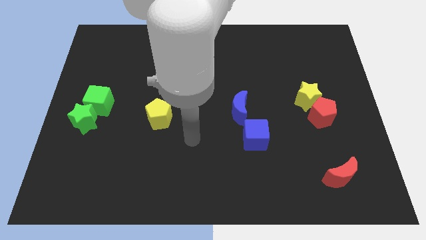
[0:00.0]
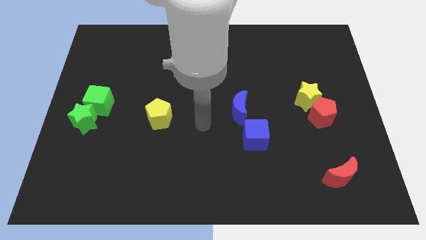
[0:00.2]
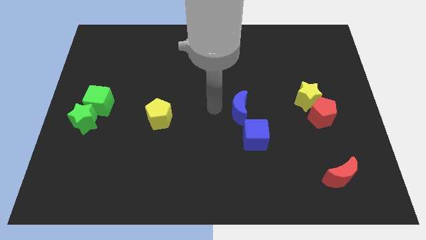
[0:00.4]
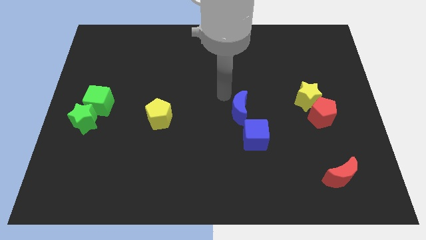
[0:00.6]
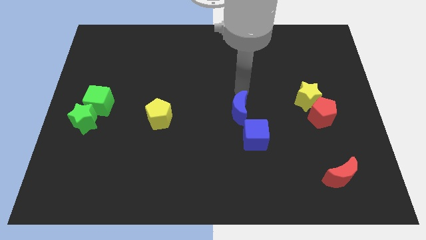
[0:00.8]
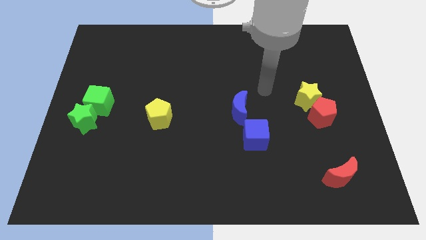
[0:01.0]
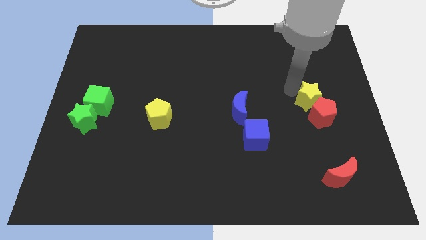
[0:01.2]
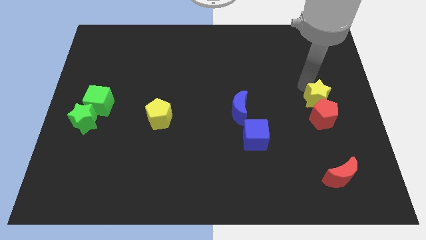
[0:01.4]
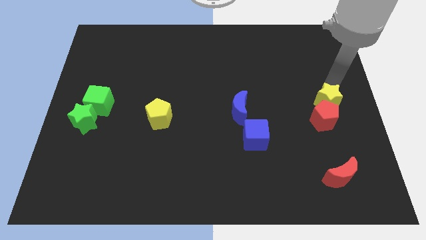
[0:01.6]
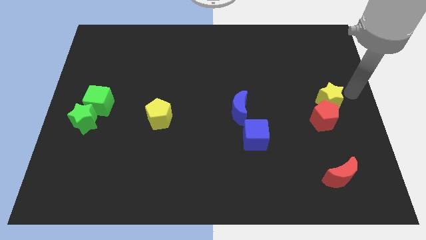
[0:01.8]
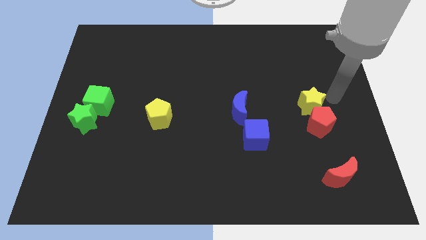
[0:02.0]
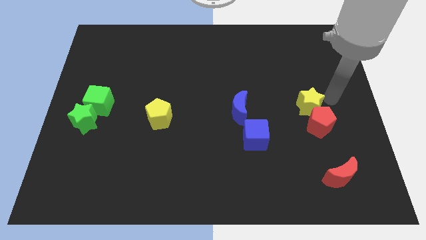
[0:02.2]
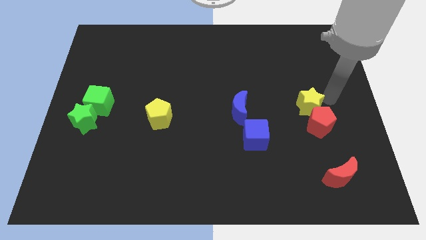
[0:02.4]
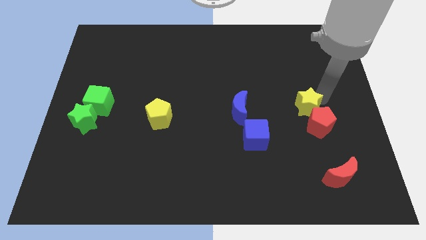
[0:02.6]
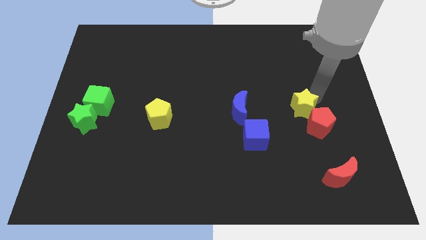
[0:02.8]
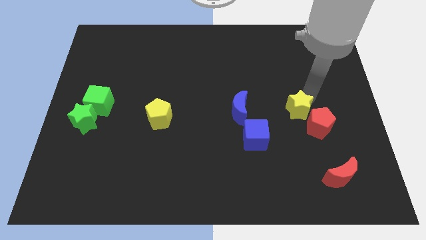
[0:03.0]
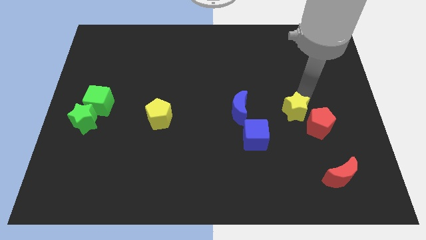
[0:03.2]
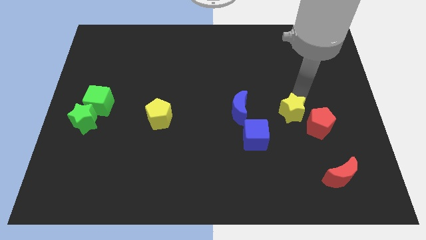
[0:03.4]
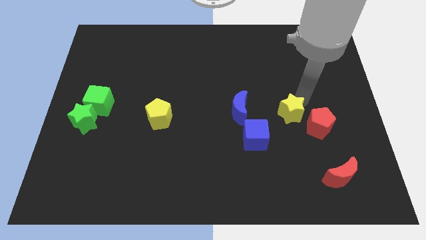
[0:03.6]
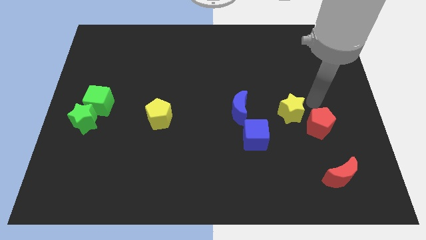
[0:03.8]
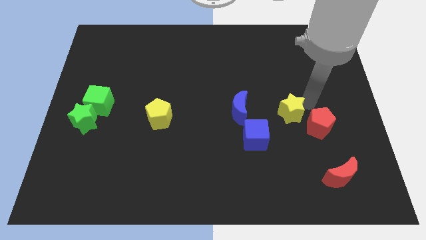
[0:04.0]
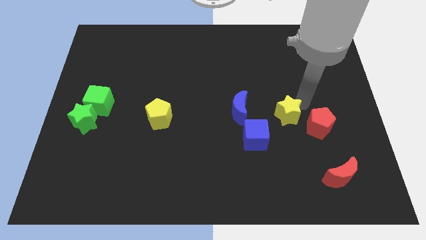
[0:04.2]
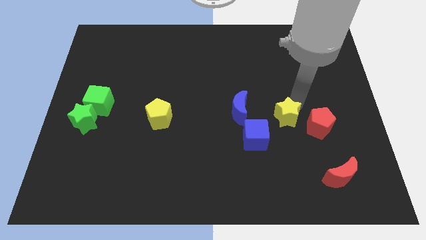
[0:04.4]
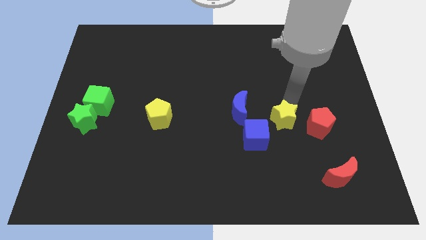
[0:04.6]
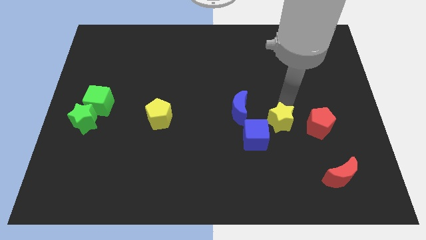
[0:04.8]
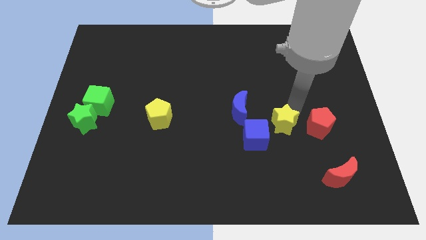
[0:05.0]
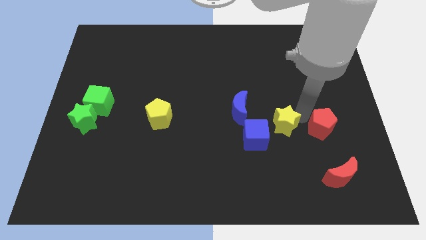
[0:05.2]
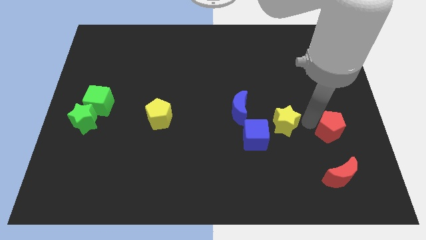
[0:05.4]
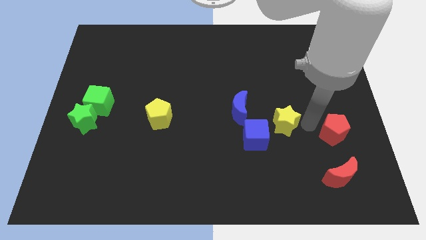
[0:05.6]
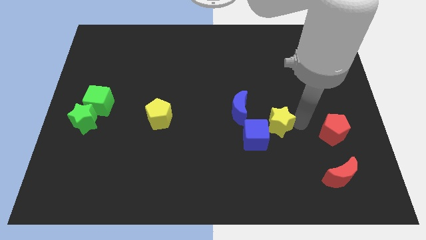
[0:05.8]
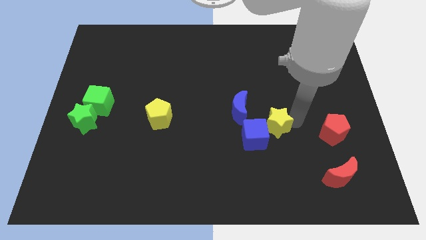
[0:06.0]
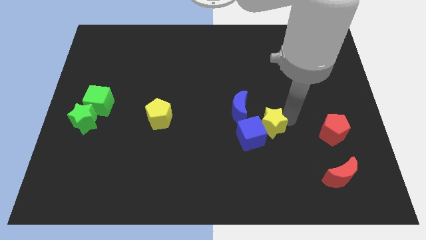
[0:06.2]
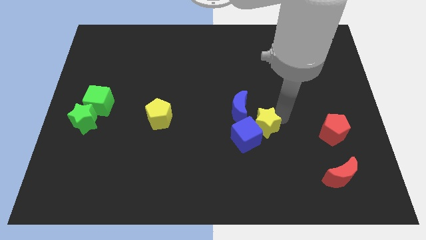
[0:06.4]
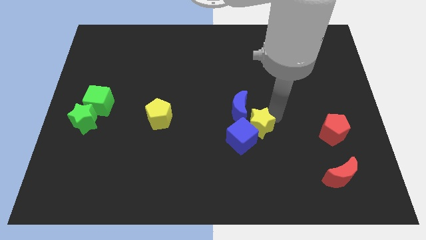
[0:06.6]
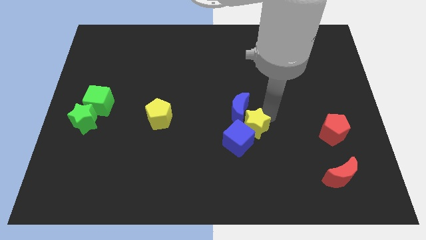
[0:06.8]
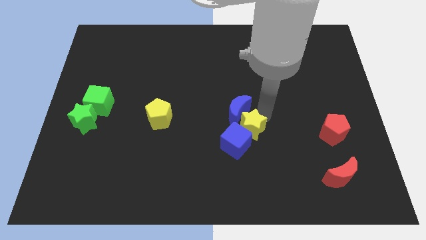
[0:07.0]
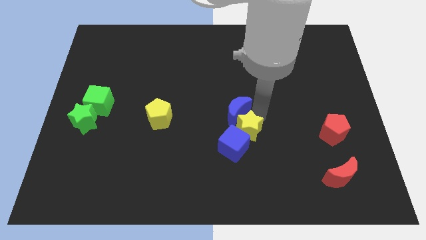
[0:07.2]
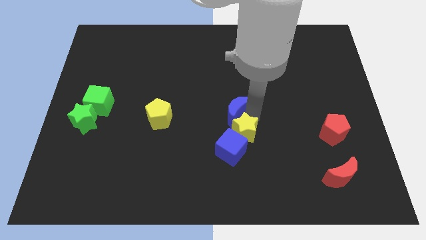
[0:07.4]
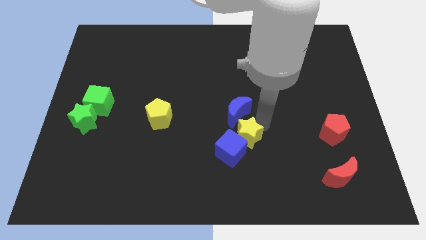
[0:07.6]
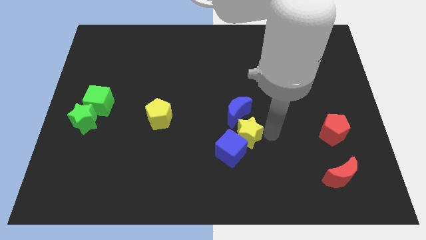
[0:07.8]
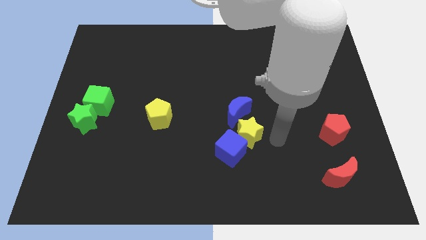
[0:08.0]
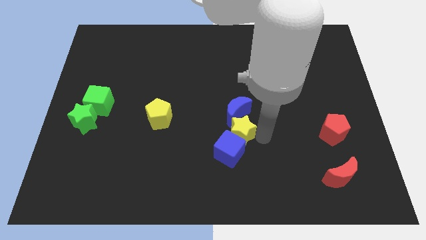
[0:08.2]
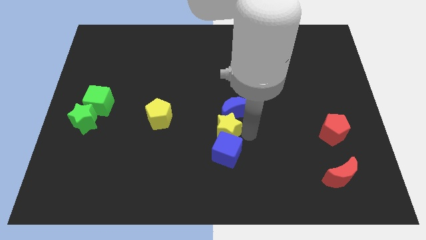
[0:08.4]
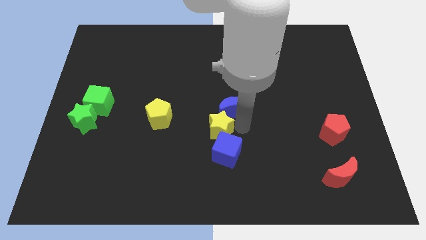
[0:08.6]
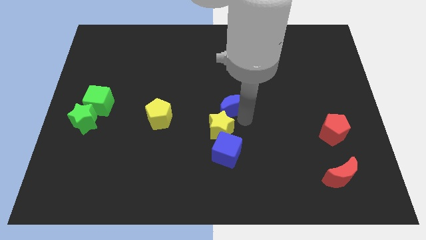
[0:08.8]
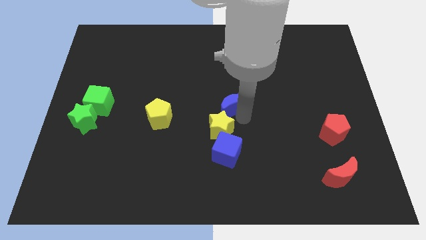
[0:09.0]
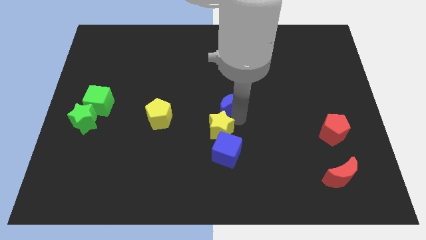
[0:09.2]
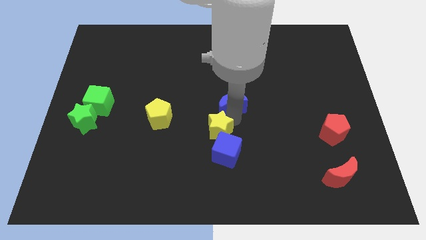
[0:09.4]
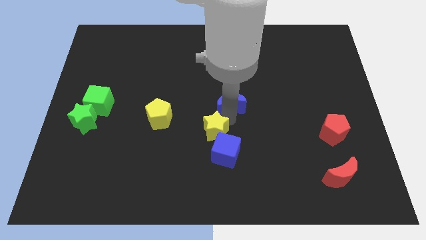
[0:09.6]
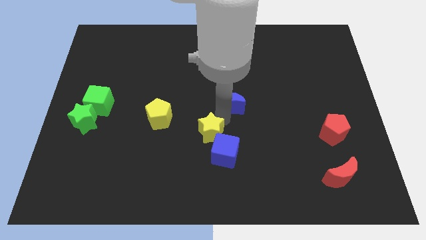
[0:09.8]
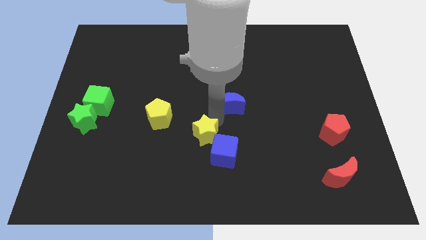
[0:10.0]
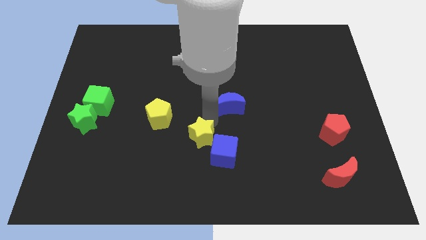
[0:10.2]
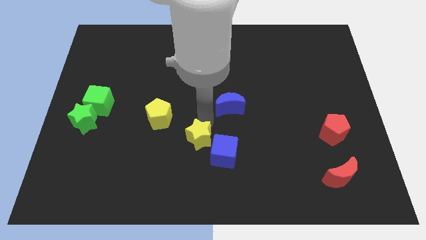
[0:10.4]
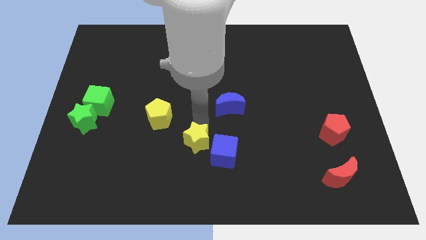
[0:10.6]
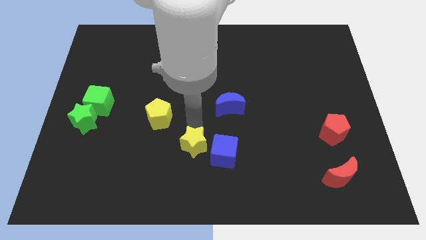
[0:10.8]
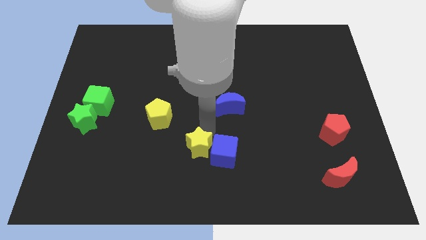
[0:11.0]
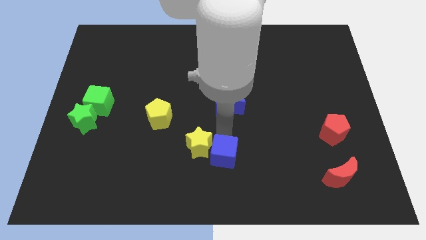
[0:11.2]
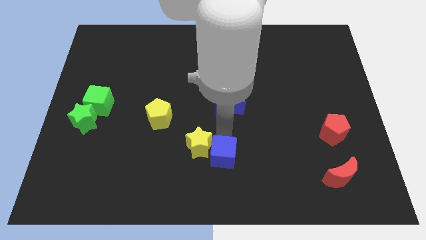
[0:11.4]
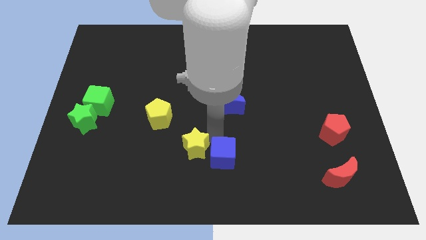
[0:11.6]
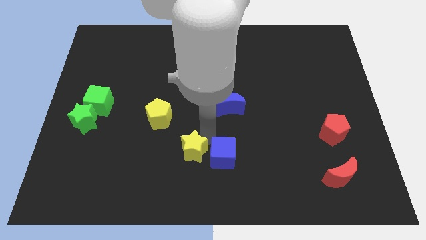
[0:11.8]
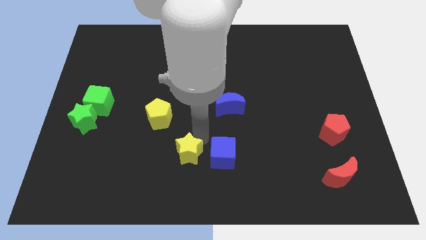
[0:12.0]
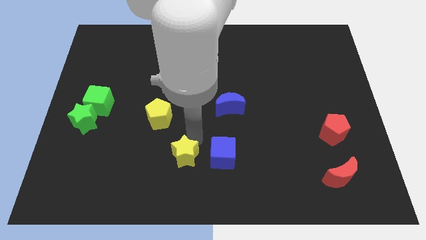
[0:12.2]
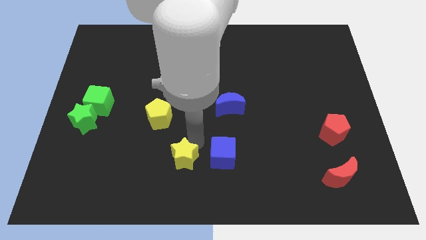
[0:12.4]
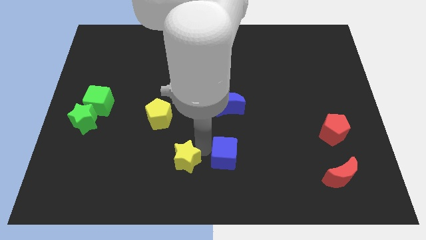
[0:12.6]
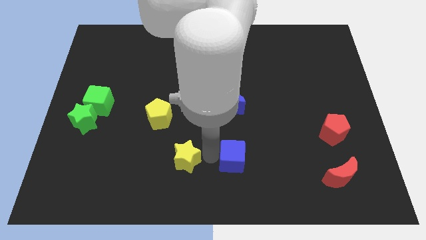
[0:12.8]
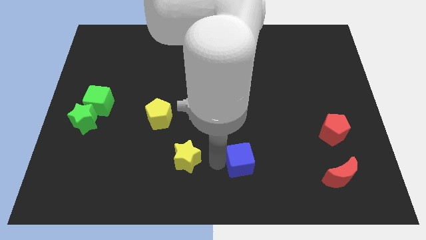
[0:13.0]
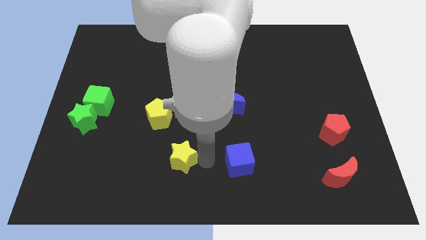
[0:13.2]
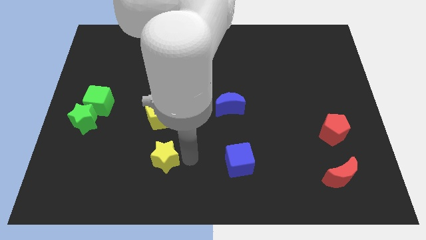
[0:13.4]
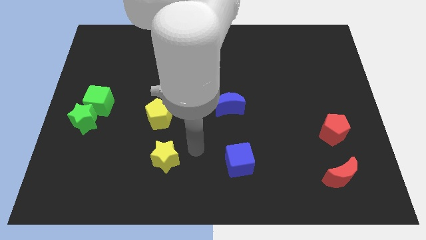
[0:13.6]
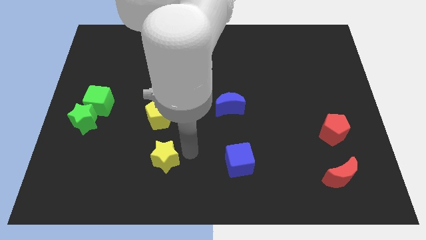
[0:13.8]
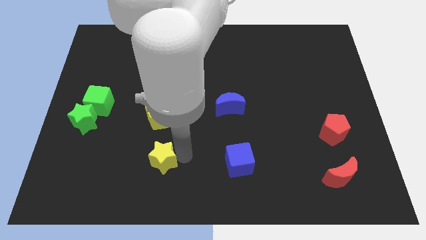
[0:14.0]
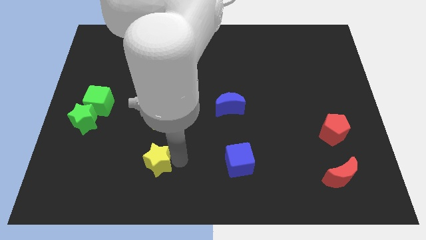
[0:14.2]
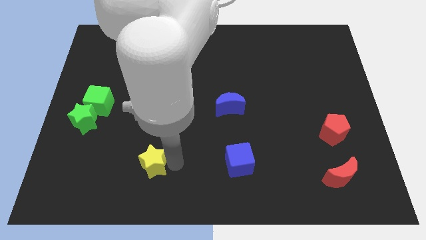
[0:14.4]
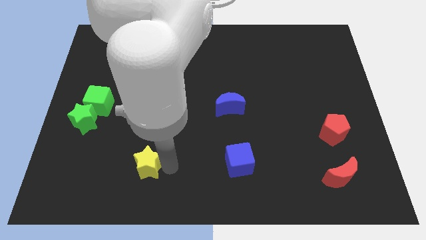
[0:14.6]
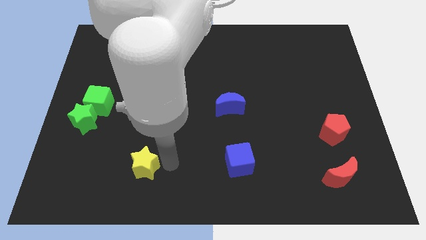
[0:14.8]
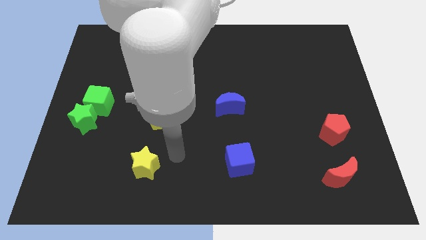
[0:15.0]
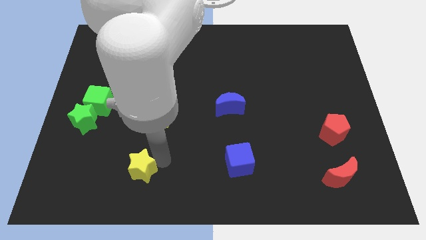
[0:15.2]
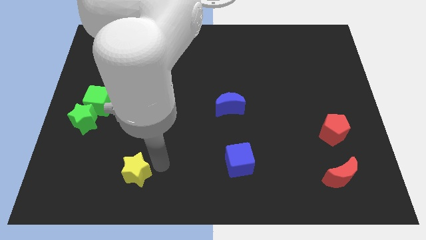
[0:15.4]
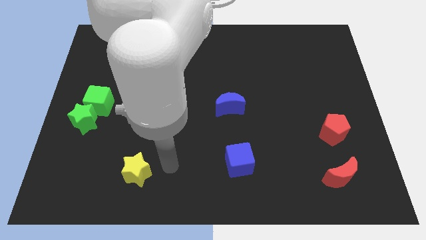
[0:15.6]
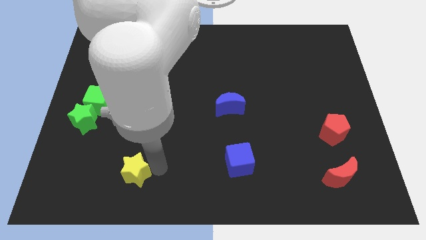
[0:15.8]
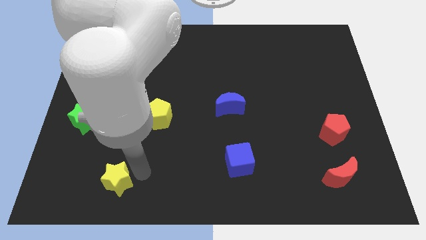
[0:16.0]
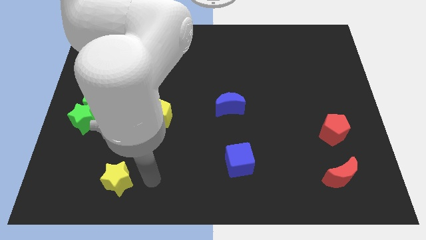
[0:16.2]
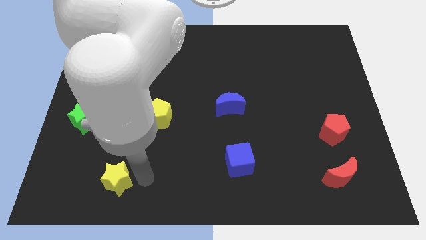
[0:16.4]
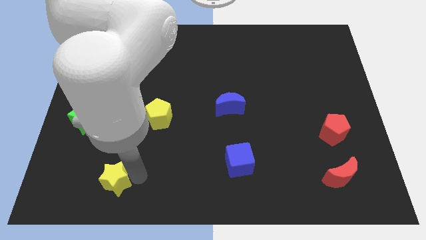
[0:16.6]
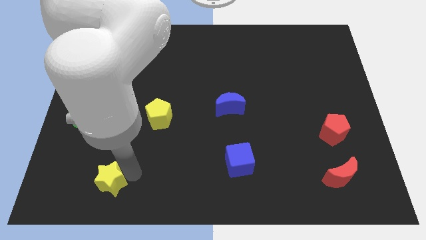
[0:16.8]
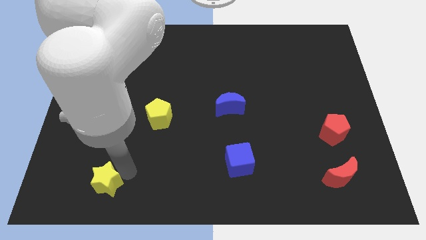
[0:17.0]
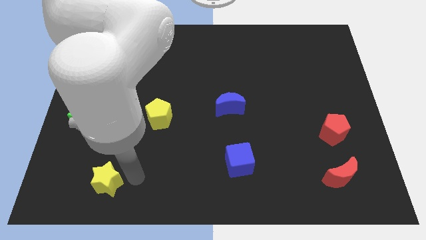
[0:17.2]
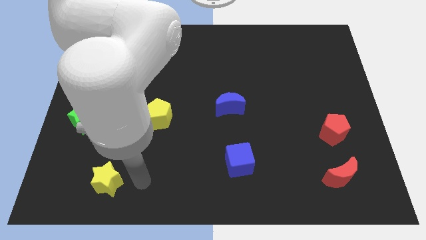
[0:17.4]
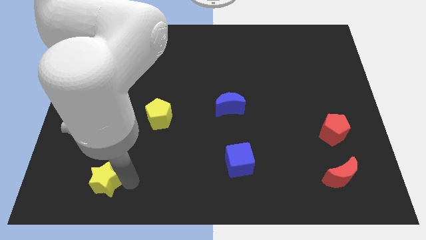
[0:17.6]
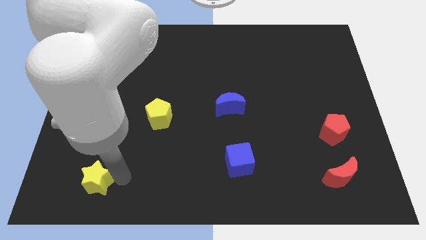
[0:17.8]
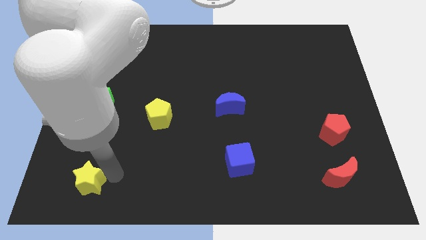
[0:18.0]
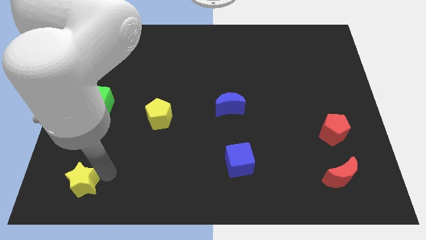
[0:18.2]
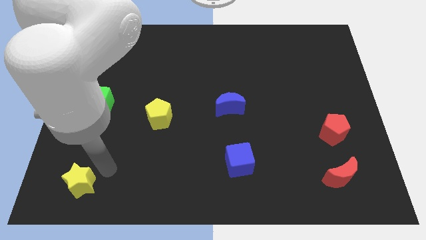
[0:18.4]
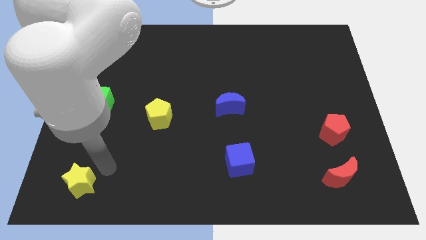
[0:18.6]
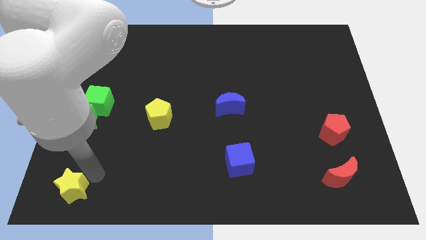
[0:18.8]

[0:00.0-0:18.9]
move the yellow star to the bottom left
